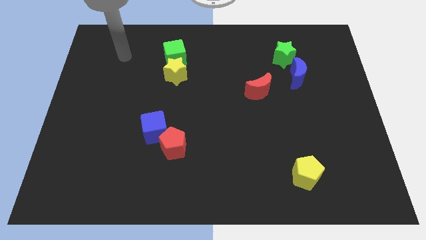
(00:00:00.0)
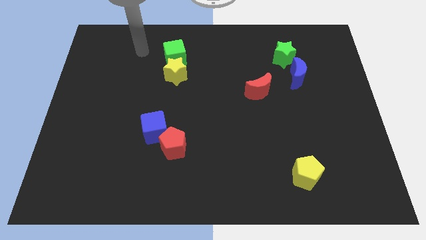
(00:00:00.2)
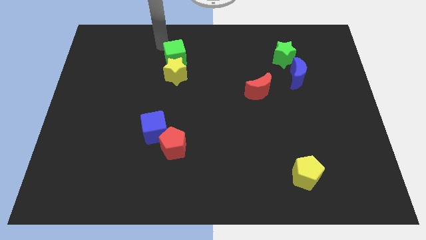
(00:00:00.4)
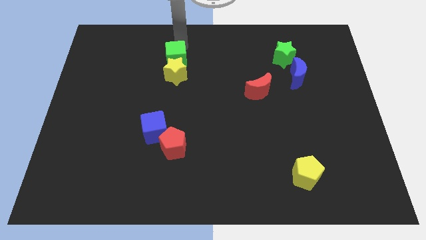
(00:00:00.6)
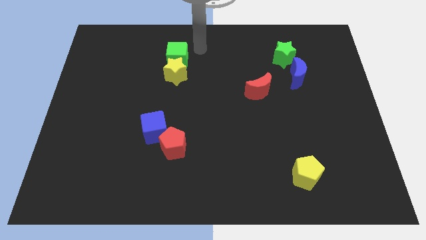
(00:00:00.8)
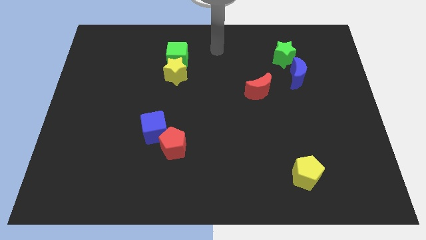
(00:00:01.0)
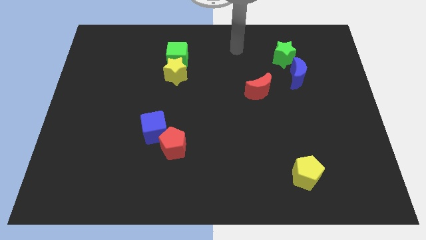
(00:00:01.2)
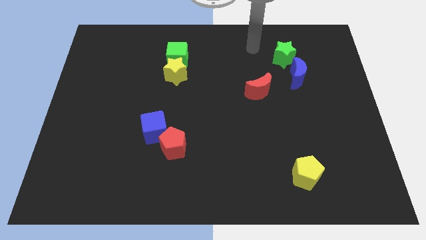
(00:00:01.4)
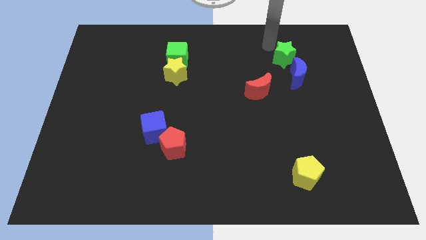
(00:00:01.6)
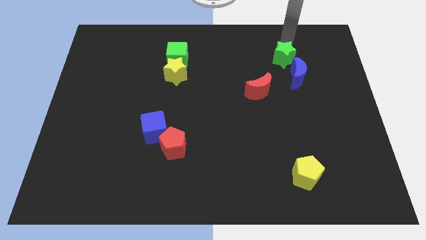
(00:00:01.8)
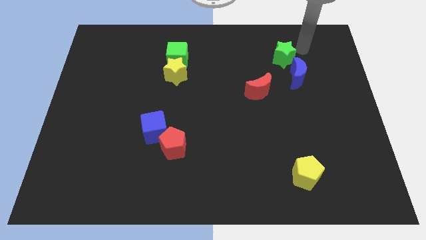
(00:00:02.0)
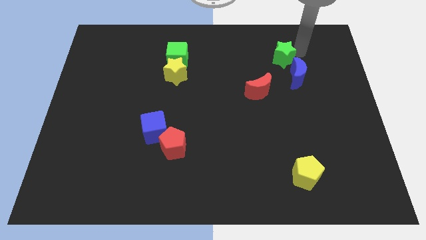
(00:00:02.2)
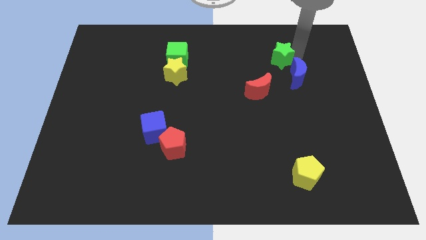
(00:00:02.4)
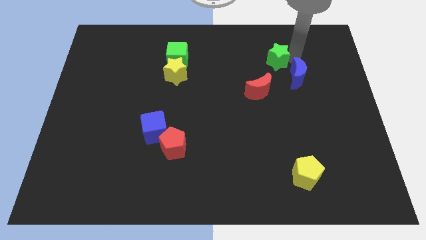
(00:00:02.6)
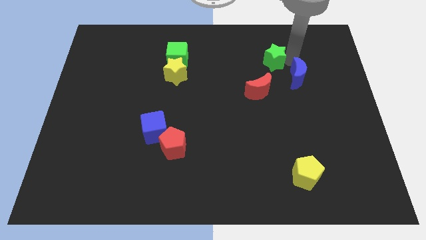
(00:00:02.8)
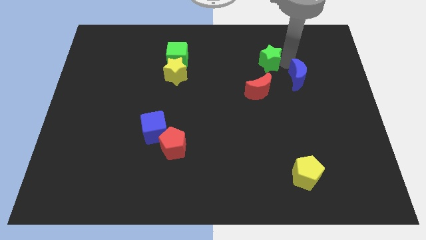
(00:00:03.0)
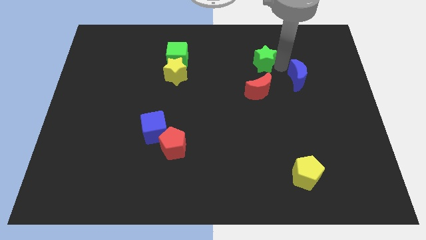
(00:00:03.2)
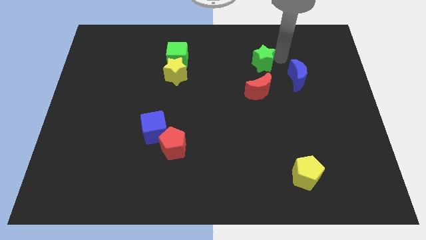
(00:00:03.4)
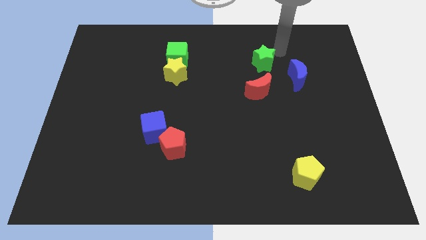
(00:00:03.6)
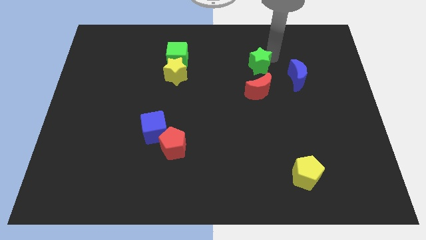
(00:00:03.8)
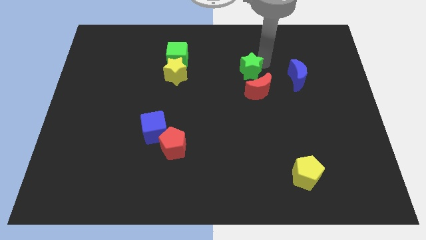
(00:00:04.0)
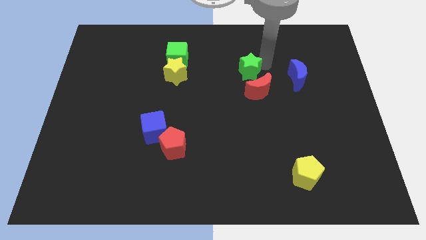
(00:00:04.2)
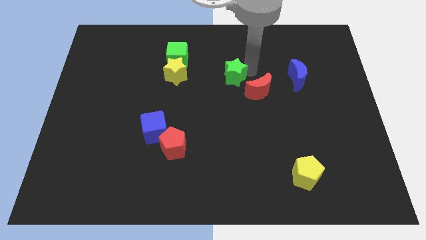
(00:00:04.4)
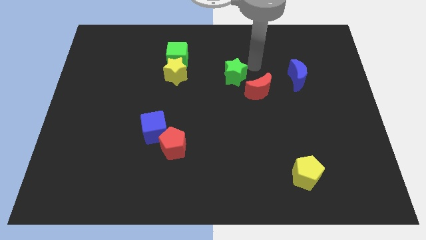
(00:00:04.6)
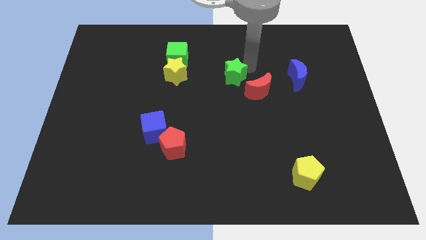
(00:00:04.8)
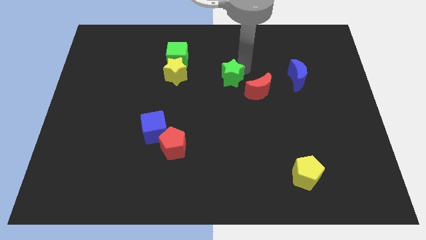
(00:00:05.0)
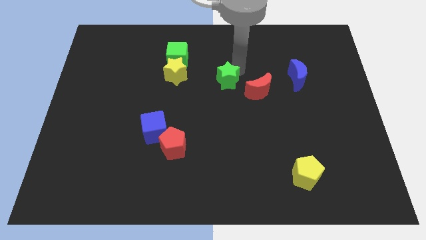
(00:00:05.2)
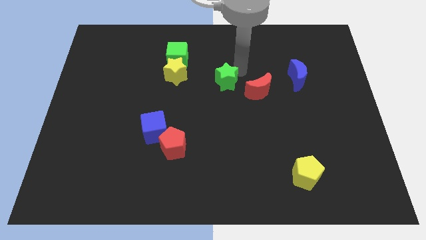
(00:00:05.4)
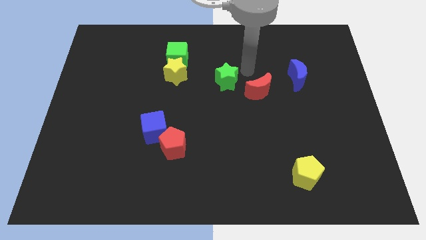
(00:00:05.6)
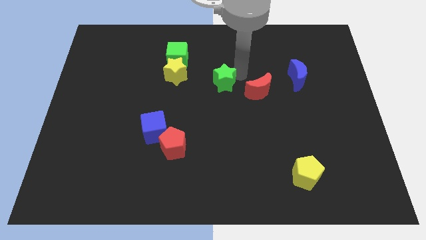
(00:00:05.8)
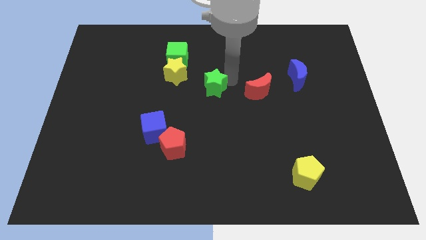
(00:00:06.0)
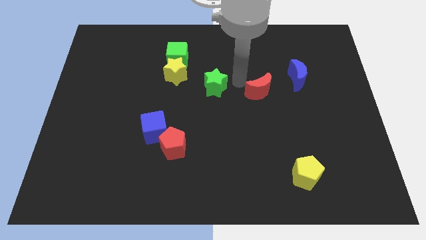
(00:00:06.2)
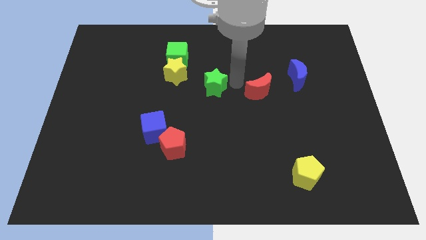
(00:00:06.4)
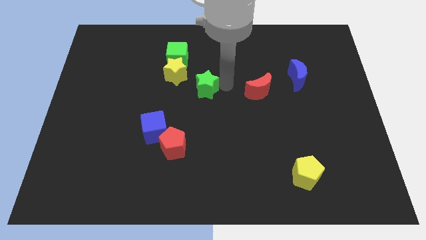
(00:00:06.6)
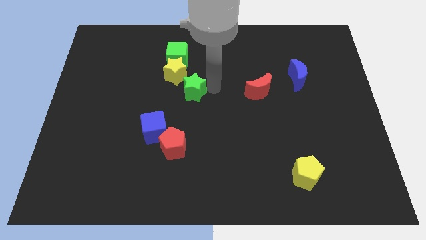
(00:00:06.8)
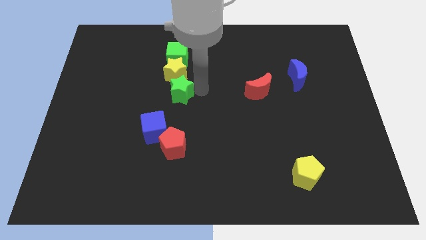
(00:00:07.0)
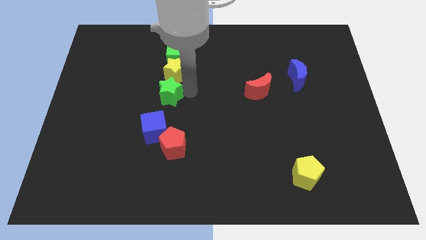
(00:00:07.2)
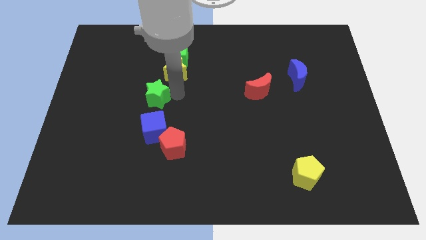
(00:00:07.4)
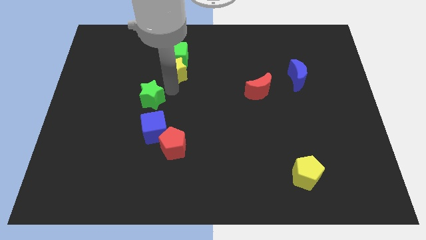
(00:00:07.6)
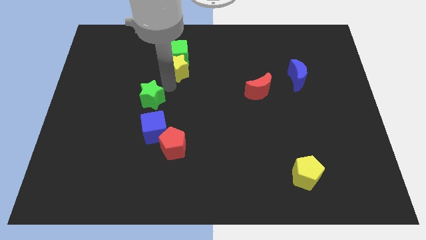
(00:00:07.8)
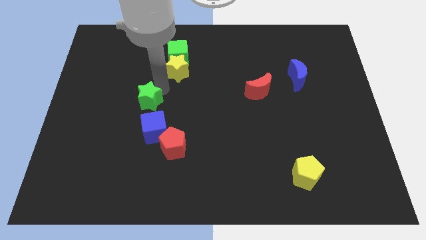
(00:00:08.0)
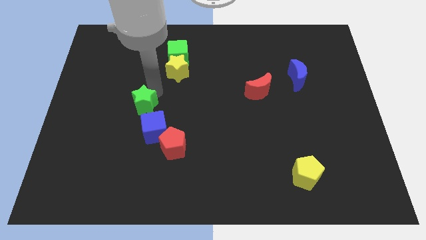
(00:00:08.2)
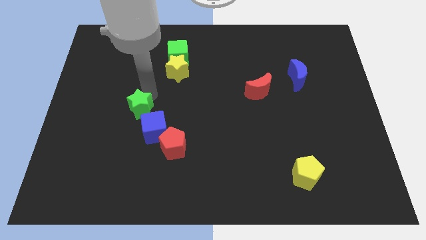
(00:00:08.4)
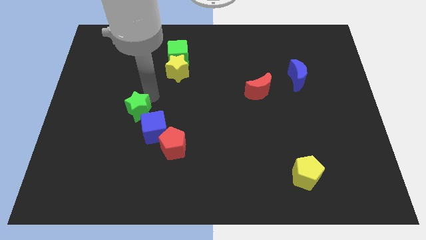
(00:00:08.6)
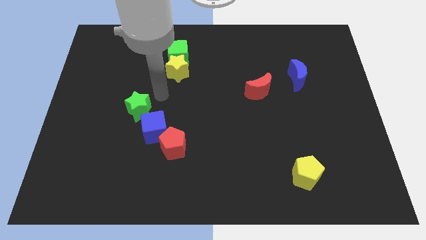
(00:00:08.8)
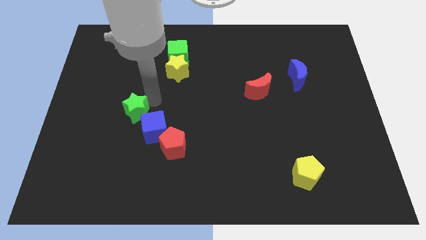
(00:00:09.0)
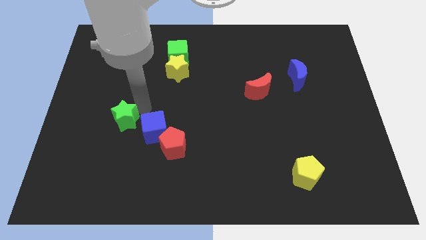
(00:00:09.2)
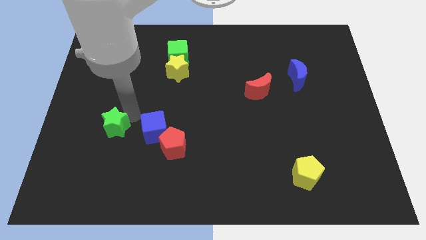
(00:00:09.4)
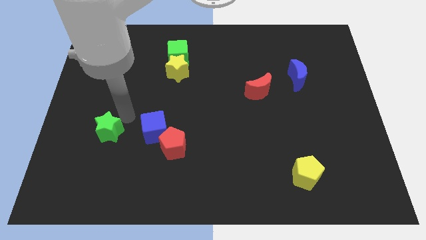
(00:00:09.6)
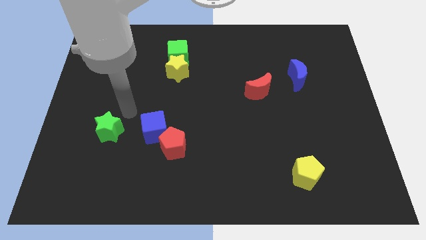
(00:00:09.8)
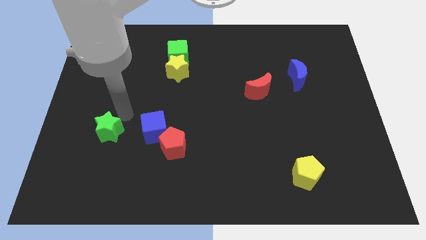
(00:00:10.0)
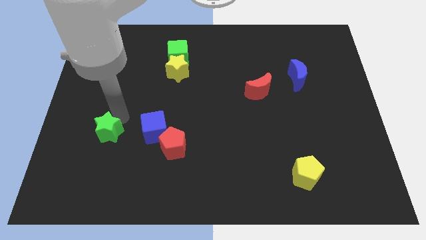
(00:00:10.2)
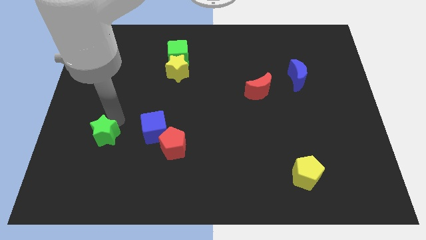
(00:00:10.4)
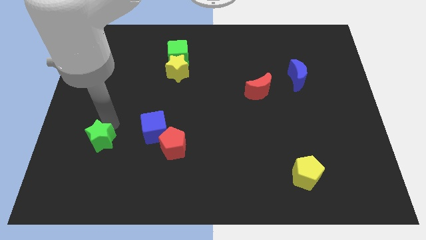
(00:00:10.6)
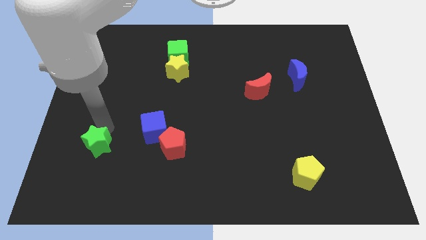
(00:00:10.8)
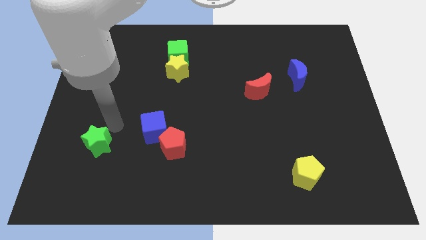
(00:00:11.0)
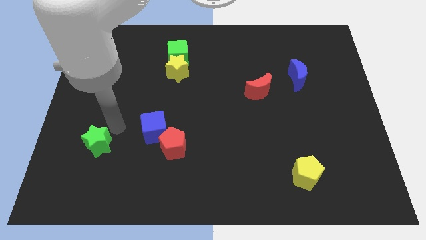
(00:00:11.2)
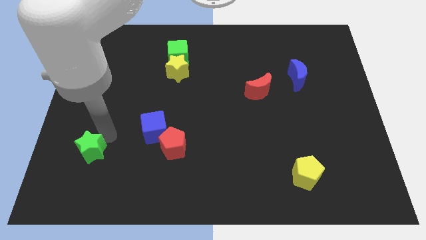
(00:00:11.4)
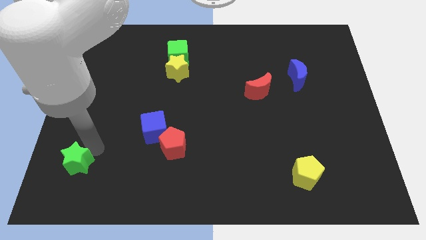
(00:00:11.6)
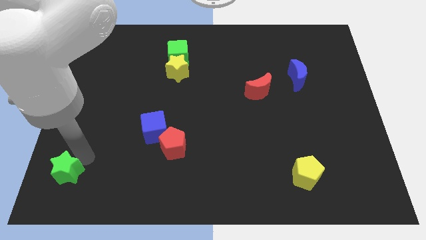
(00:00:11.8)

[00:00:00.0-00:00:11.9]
move the green star to the bottom left of the board
